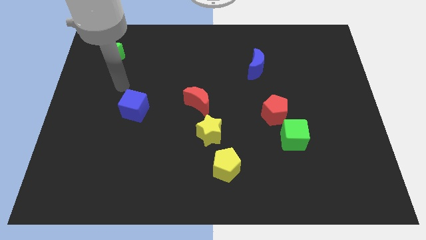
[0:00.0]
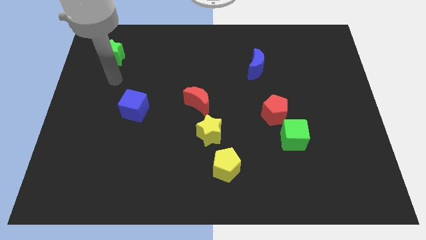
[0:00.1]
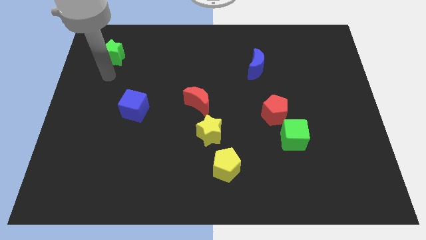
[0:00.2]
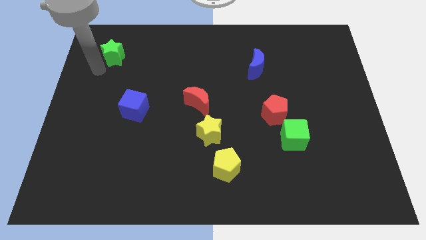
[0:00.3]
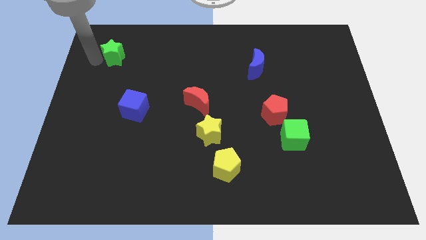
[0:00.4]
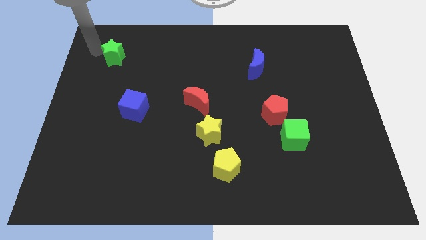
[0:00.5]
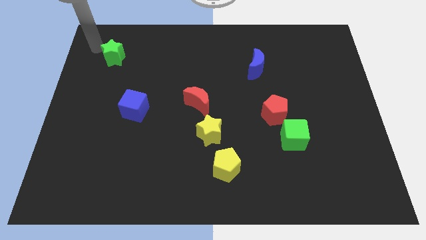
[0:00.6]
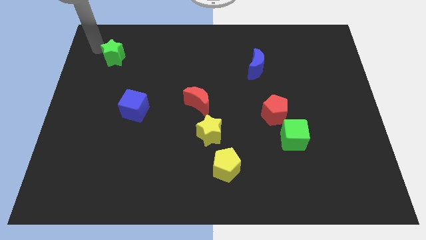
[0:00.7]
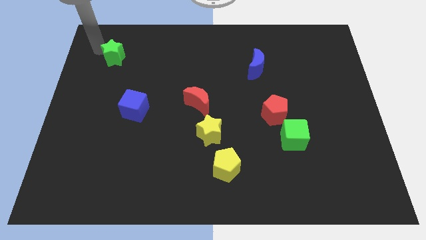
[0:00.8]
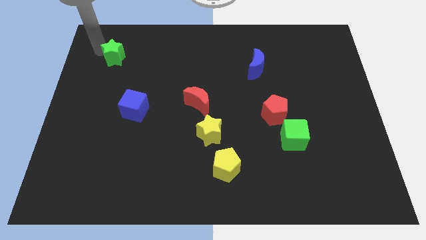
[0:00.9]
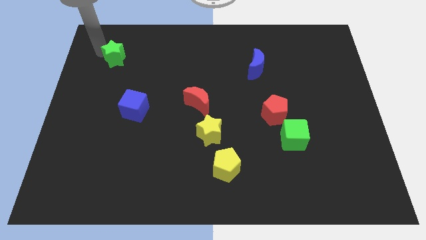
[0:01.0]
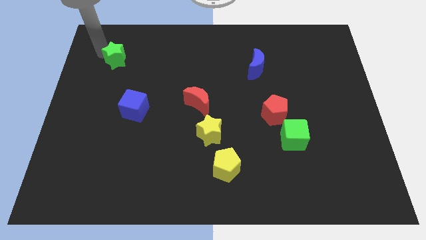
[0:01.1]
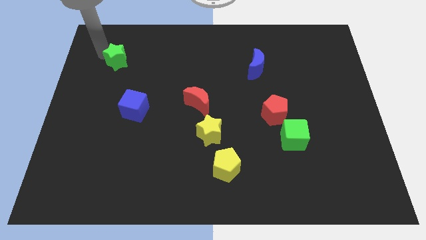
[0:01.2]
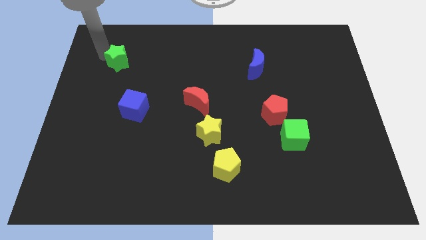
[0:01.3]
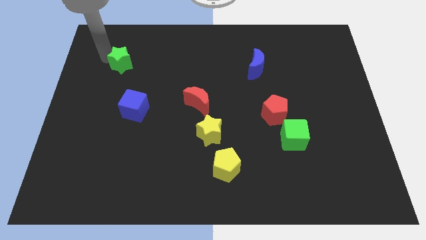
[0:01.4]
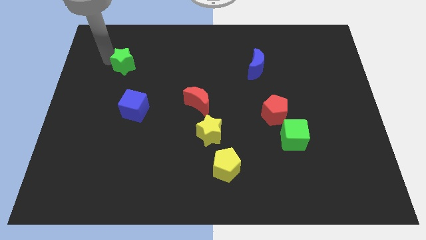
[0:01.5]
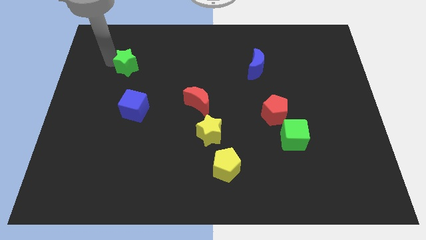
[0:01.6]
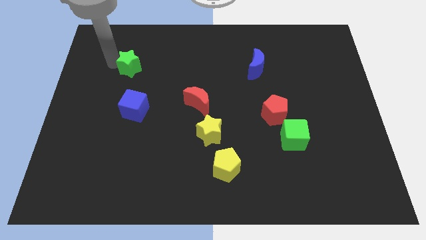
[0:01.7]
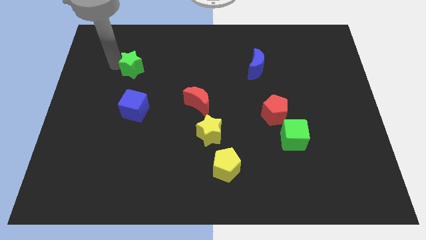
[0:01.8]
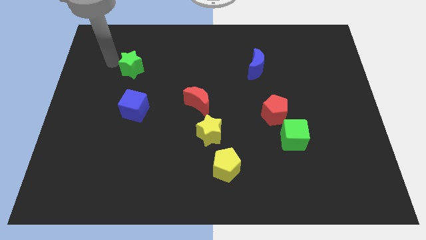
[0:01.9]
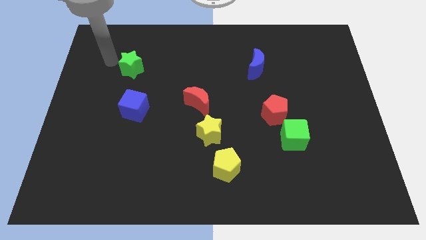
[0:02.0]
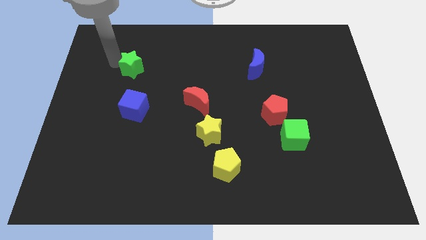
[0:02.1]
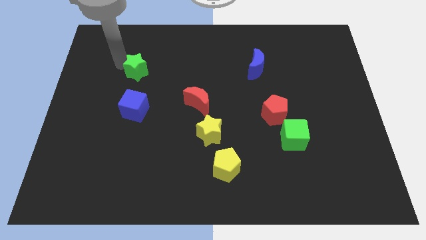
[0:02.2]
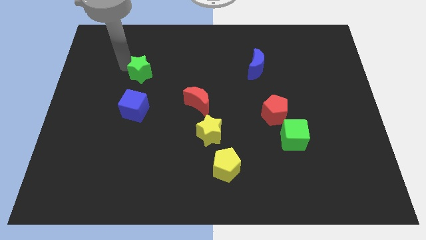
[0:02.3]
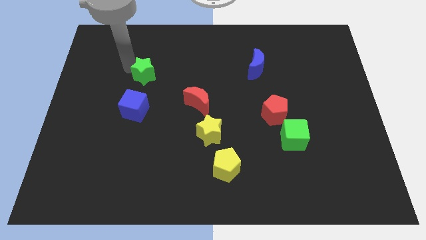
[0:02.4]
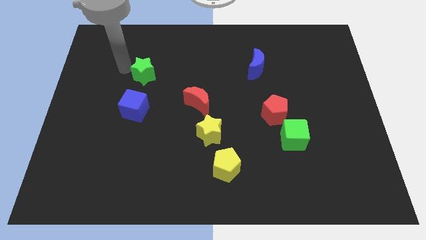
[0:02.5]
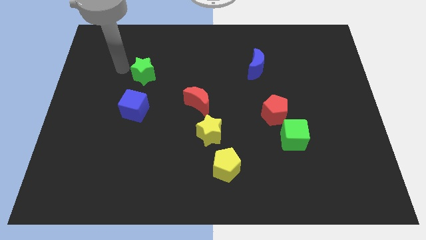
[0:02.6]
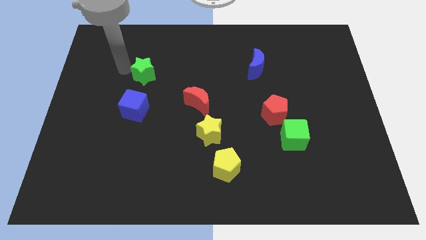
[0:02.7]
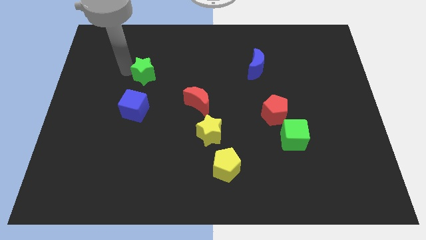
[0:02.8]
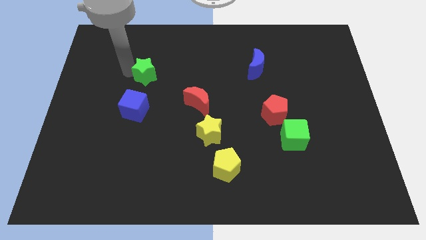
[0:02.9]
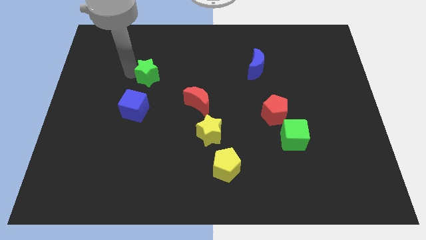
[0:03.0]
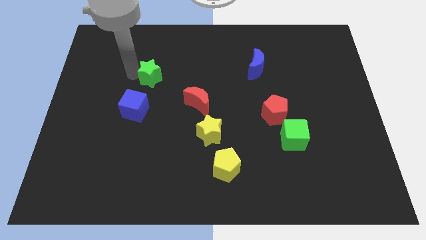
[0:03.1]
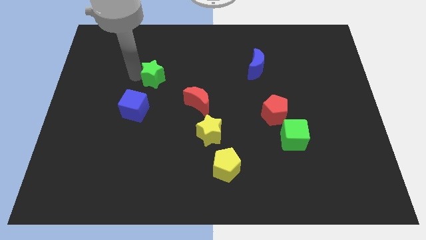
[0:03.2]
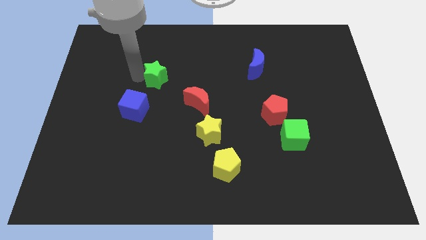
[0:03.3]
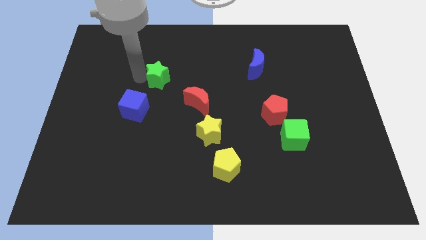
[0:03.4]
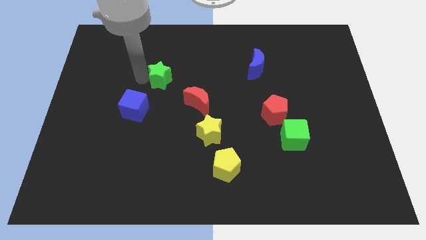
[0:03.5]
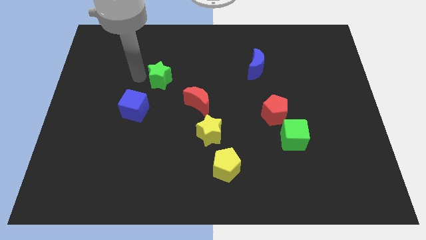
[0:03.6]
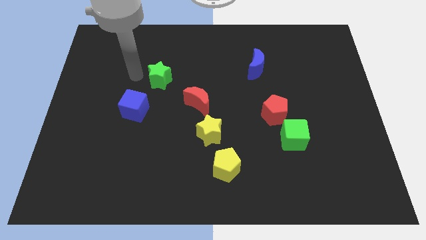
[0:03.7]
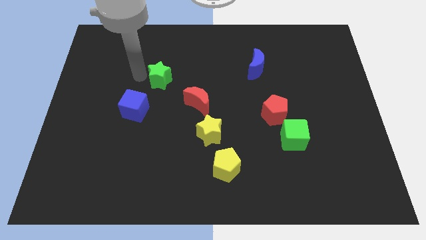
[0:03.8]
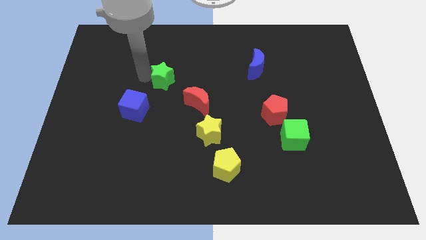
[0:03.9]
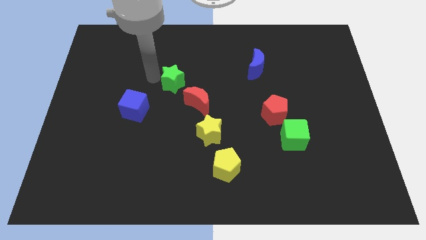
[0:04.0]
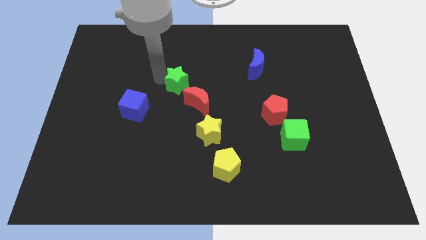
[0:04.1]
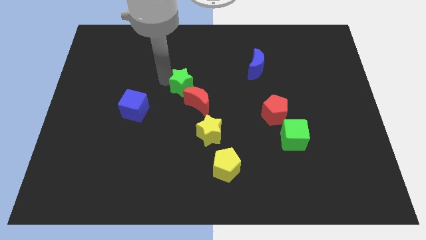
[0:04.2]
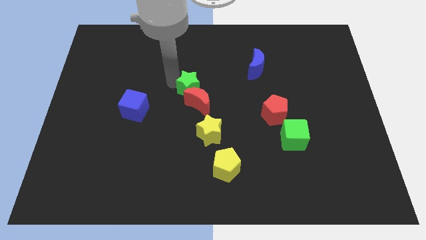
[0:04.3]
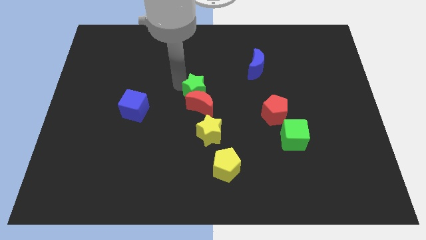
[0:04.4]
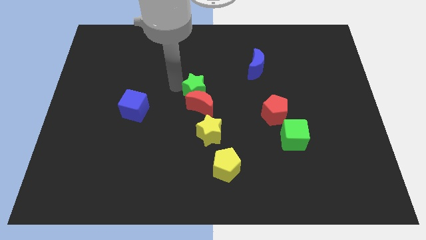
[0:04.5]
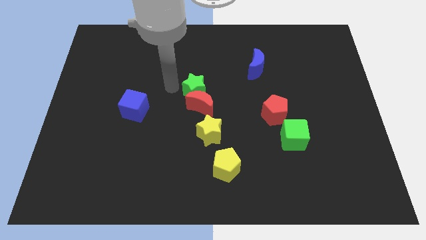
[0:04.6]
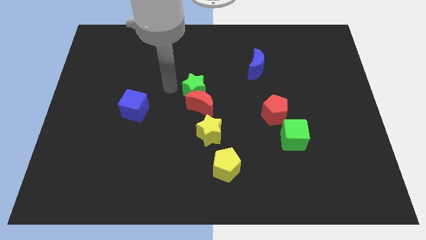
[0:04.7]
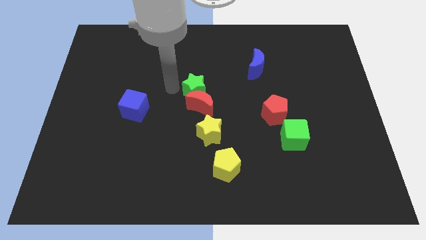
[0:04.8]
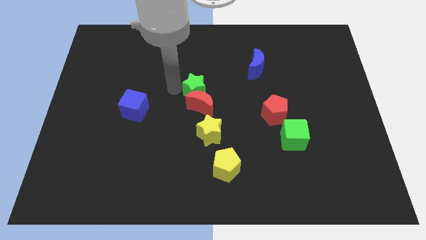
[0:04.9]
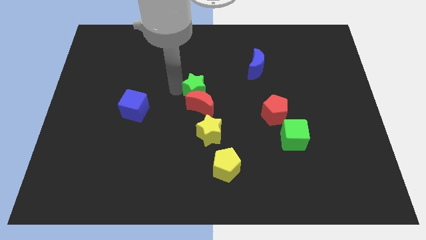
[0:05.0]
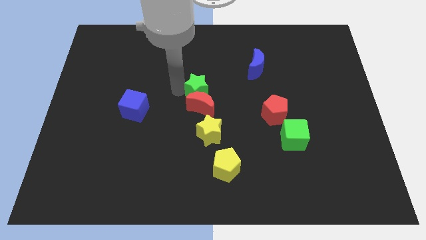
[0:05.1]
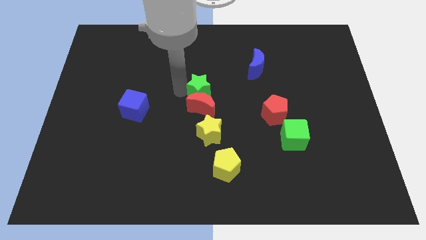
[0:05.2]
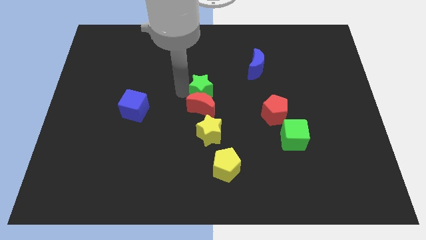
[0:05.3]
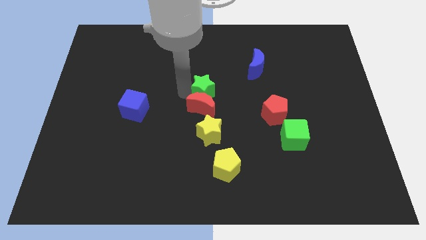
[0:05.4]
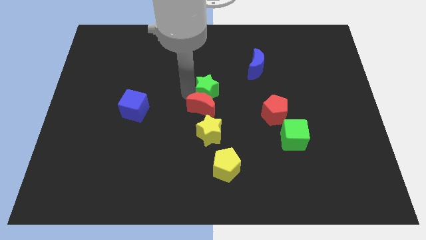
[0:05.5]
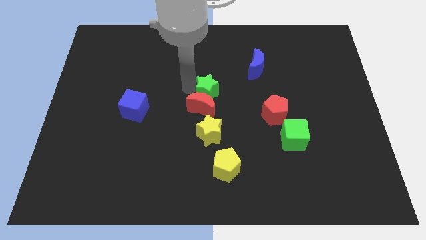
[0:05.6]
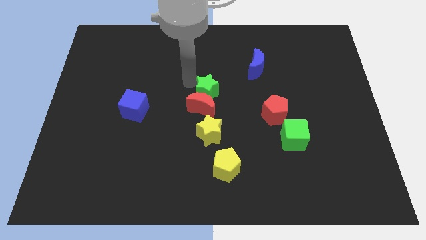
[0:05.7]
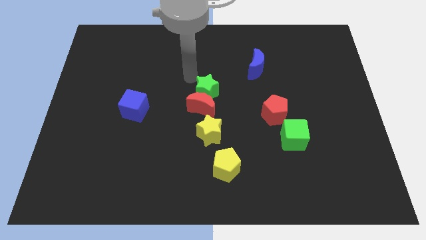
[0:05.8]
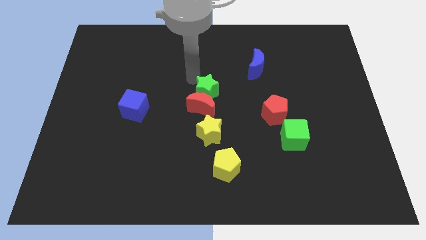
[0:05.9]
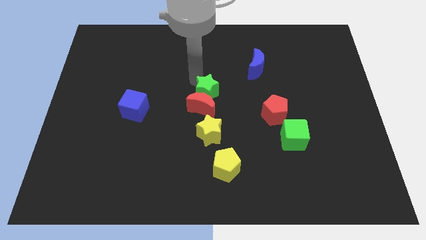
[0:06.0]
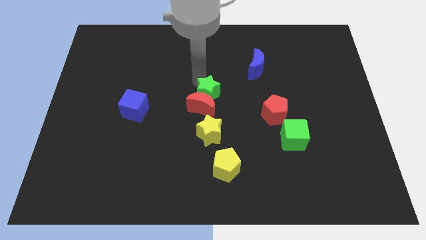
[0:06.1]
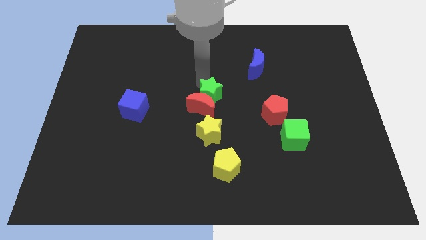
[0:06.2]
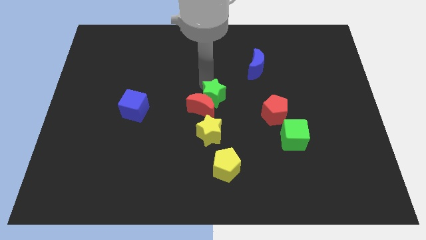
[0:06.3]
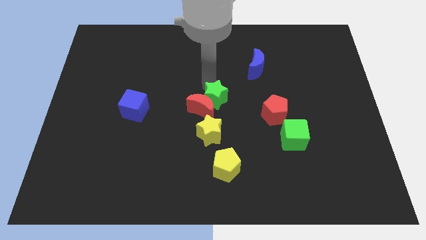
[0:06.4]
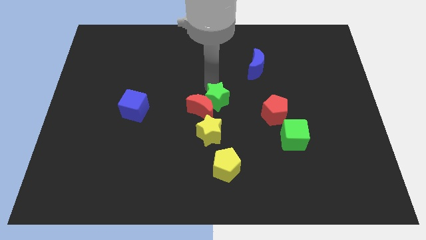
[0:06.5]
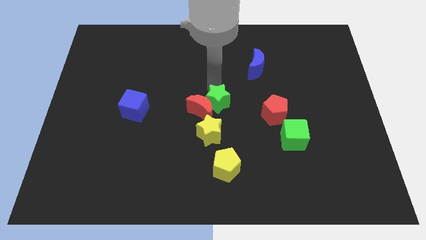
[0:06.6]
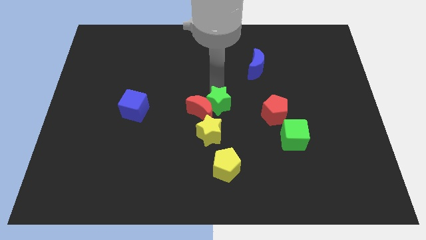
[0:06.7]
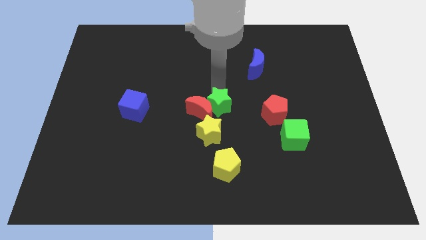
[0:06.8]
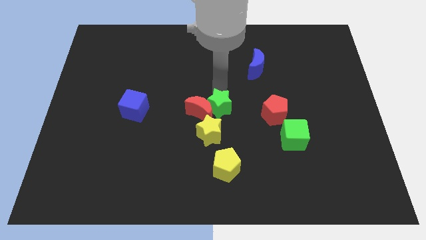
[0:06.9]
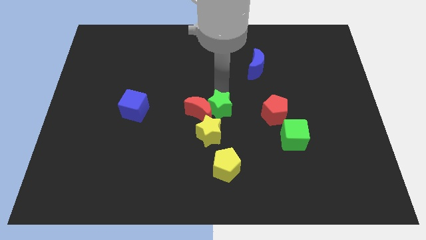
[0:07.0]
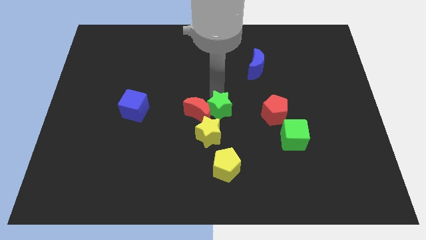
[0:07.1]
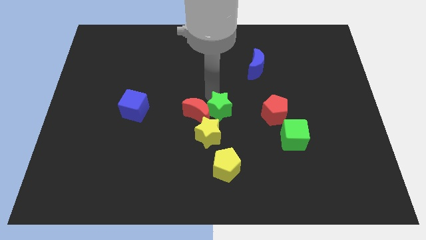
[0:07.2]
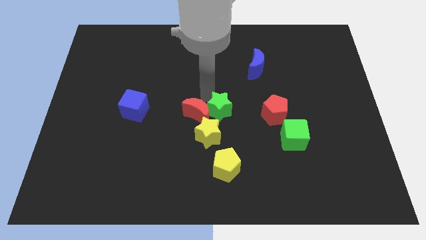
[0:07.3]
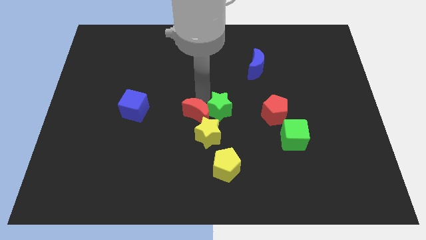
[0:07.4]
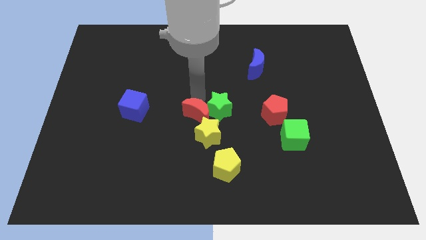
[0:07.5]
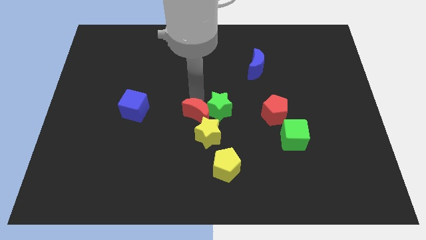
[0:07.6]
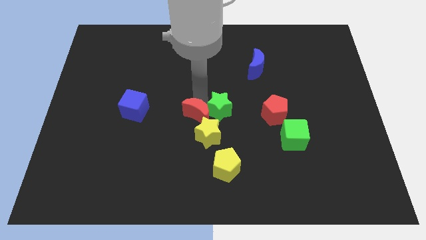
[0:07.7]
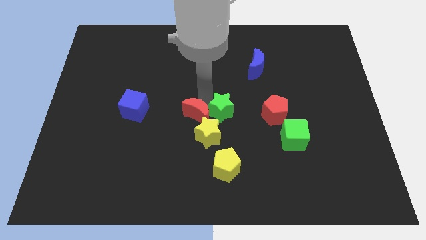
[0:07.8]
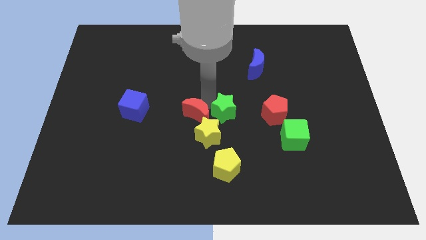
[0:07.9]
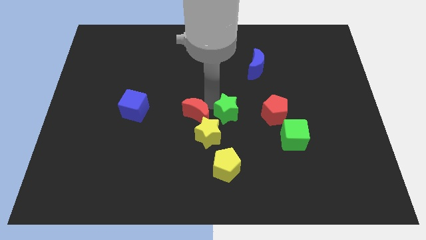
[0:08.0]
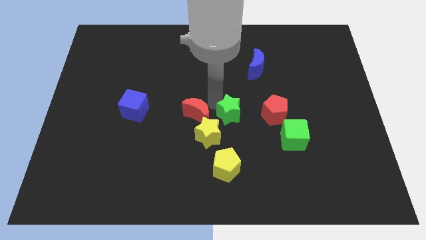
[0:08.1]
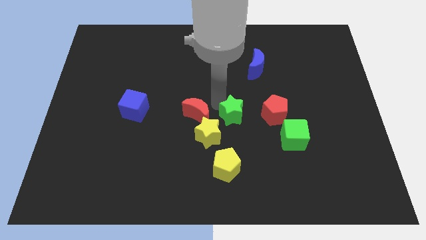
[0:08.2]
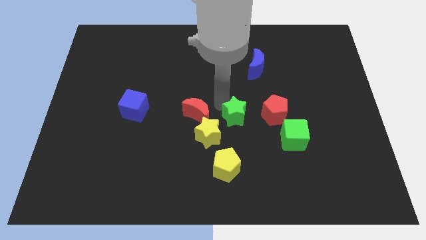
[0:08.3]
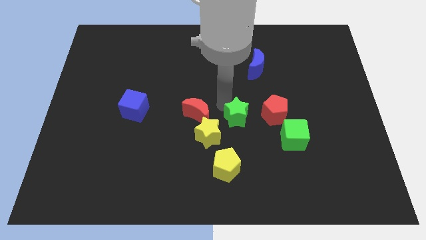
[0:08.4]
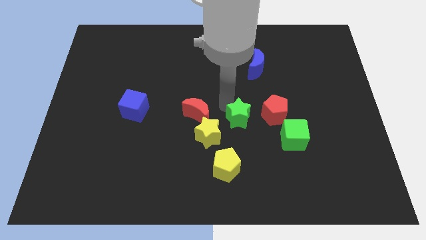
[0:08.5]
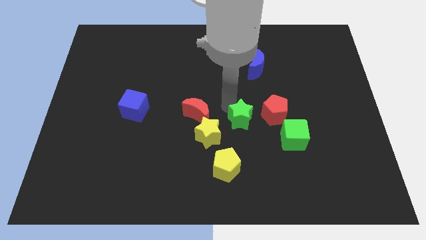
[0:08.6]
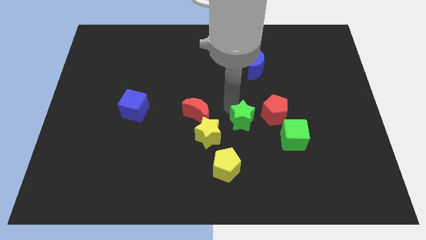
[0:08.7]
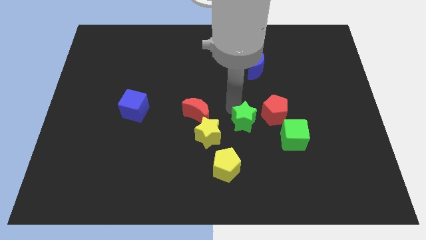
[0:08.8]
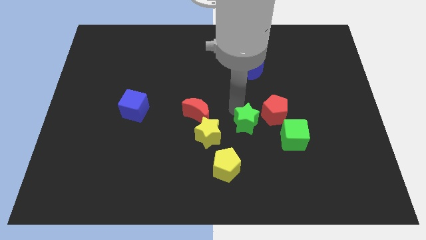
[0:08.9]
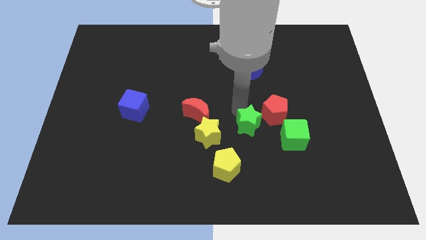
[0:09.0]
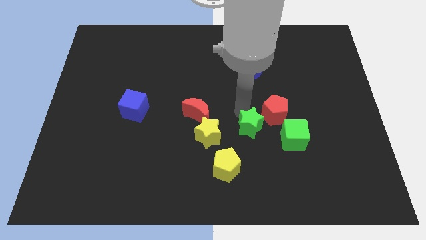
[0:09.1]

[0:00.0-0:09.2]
slide the green star diagonally up and to the right of the yellow pentagon
